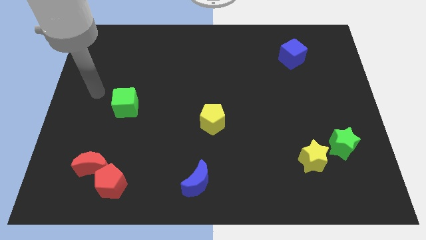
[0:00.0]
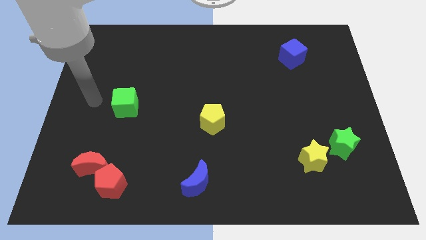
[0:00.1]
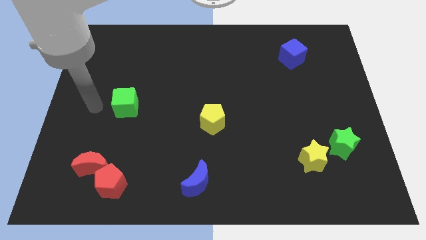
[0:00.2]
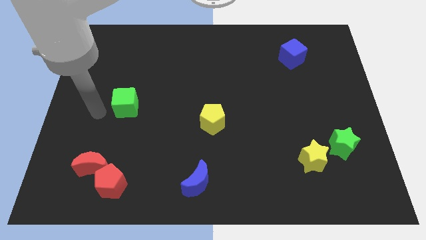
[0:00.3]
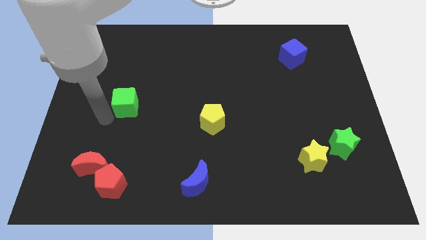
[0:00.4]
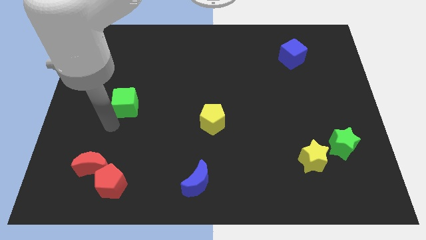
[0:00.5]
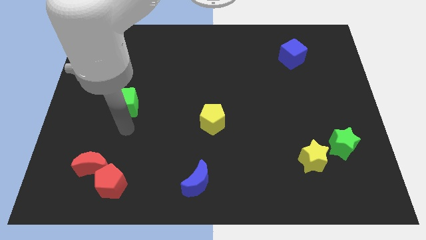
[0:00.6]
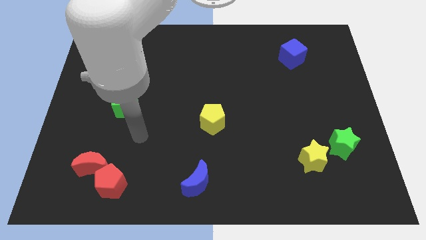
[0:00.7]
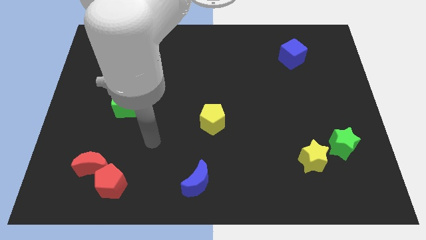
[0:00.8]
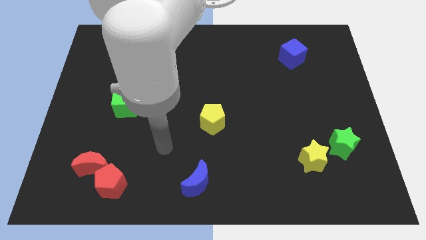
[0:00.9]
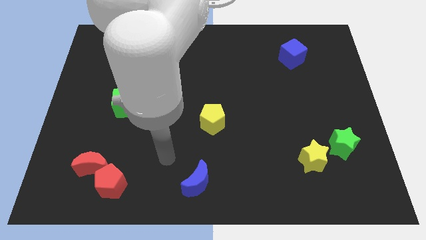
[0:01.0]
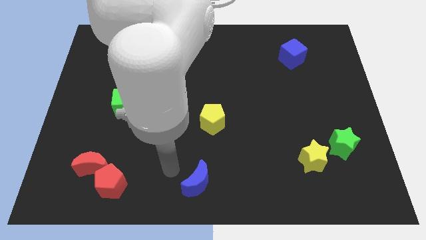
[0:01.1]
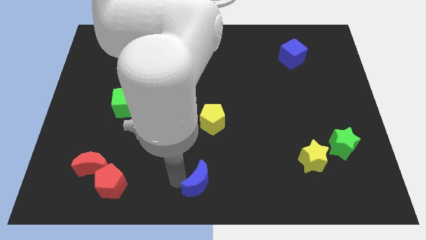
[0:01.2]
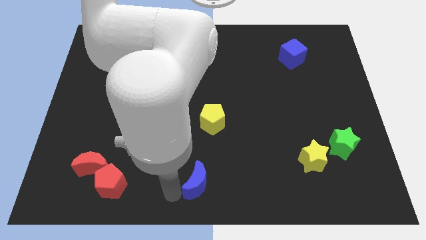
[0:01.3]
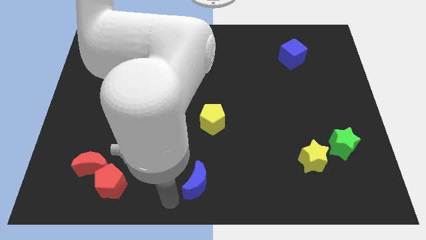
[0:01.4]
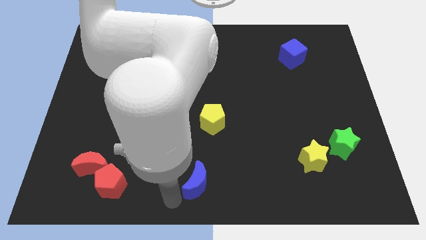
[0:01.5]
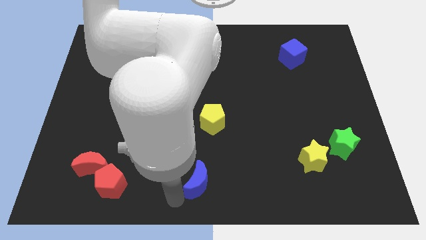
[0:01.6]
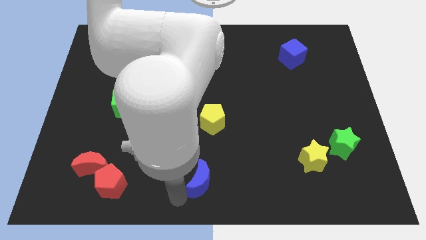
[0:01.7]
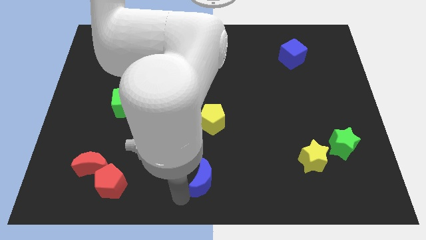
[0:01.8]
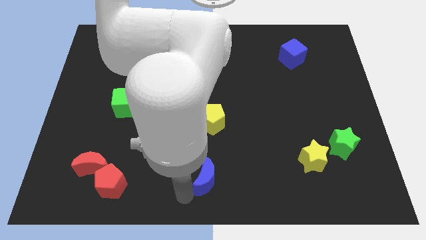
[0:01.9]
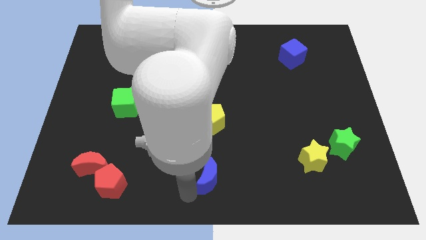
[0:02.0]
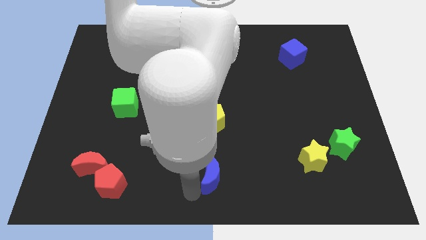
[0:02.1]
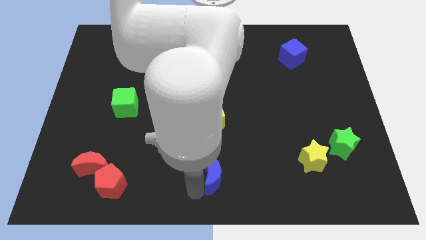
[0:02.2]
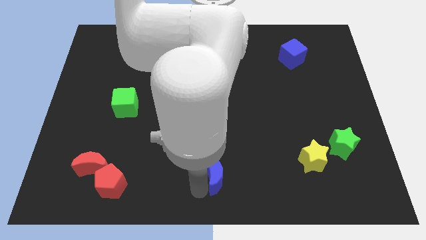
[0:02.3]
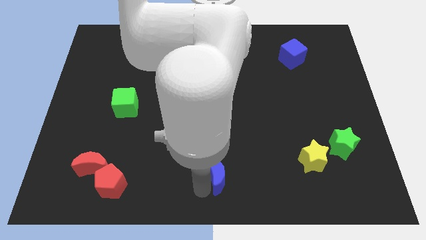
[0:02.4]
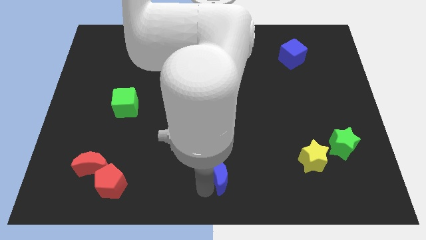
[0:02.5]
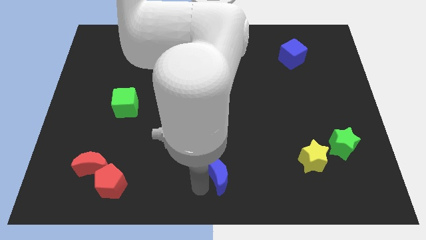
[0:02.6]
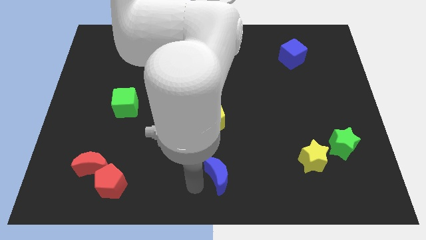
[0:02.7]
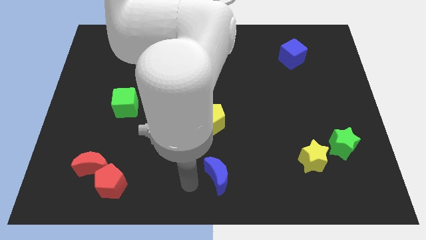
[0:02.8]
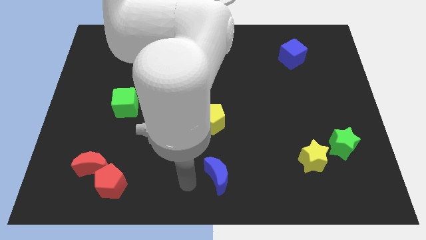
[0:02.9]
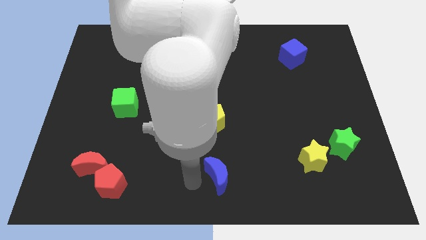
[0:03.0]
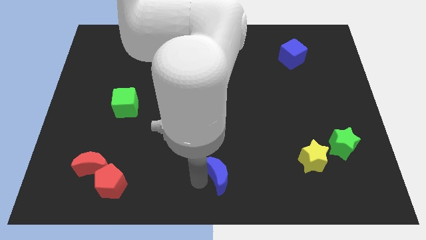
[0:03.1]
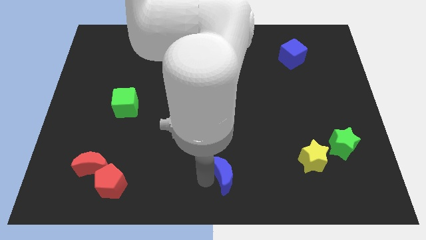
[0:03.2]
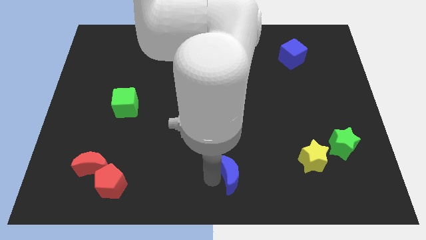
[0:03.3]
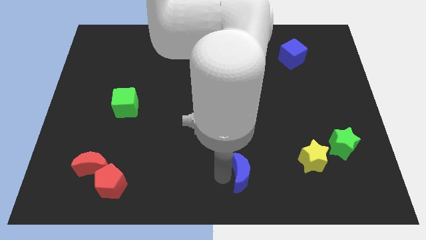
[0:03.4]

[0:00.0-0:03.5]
push the blue moon right a little bit

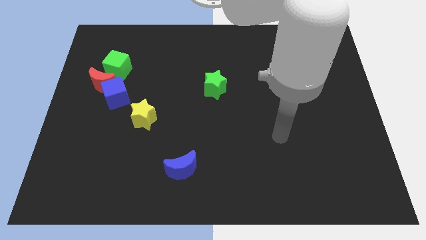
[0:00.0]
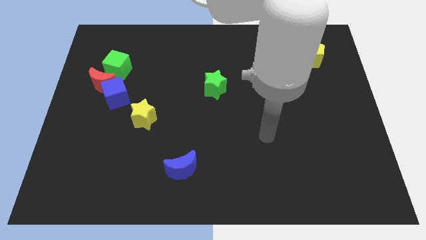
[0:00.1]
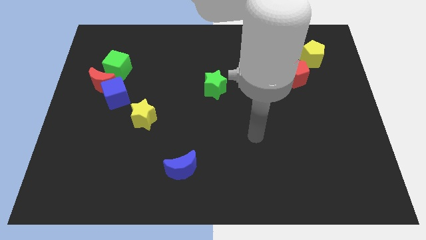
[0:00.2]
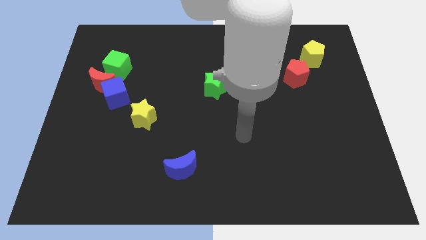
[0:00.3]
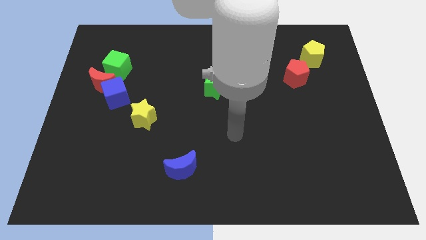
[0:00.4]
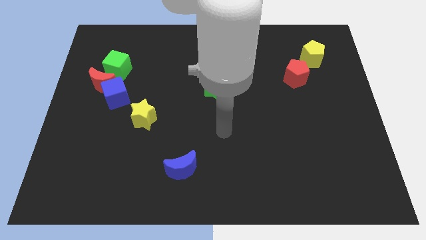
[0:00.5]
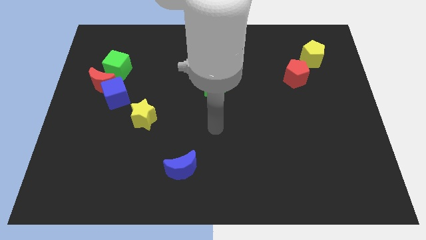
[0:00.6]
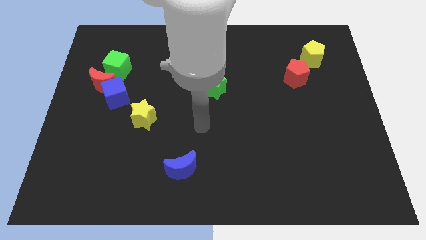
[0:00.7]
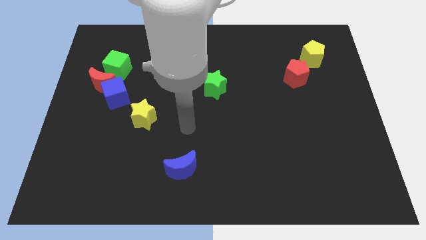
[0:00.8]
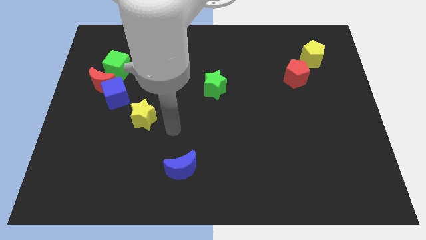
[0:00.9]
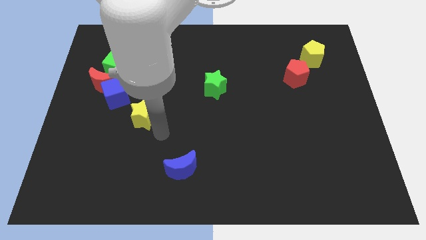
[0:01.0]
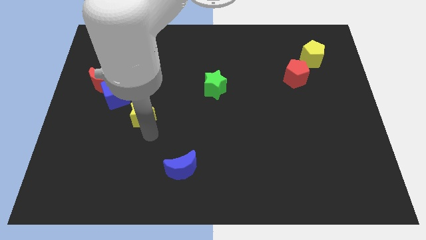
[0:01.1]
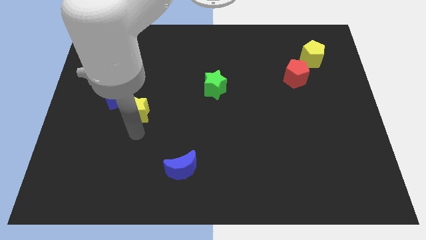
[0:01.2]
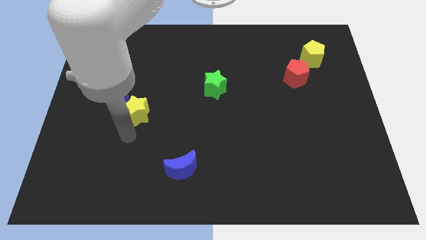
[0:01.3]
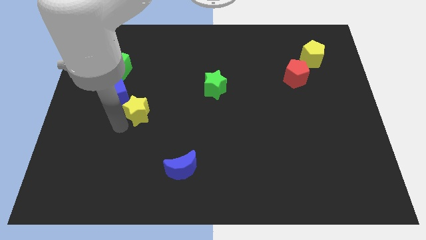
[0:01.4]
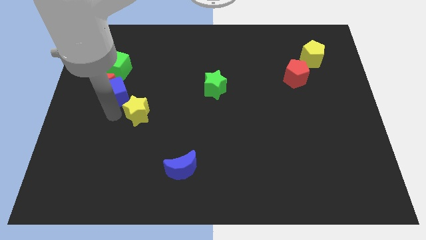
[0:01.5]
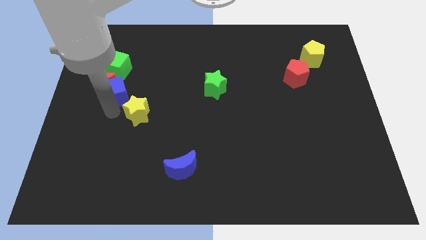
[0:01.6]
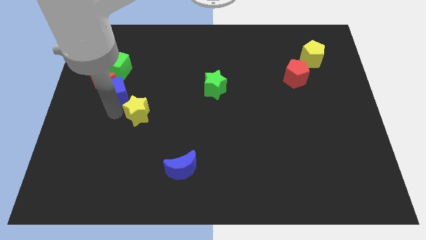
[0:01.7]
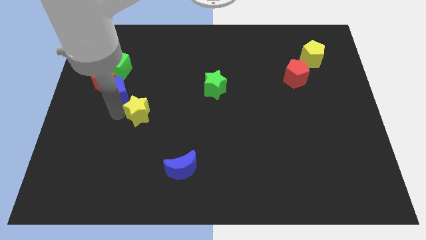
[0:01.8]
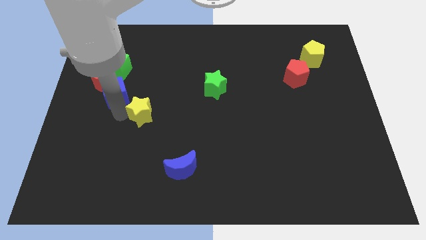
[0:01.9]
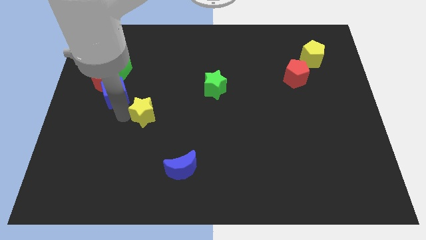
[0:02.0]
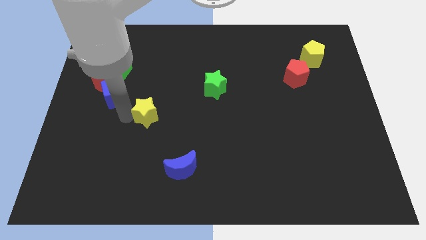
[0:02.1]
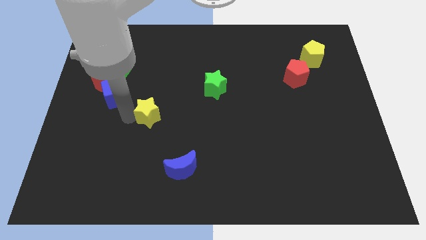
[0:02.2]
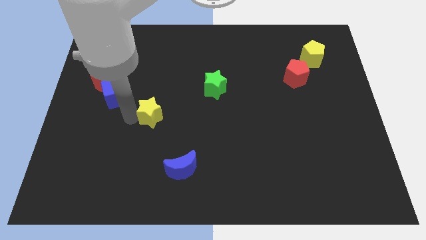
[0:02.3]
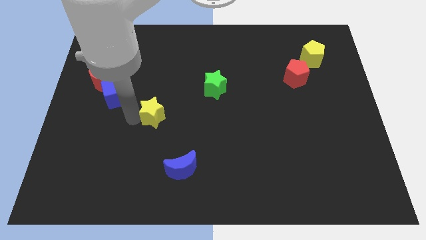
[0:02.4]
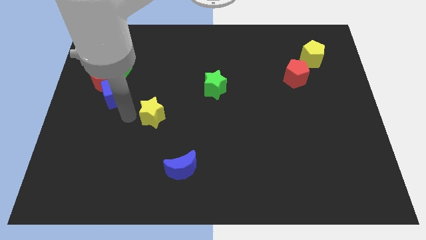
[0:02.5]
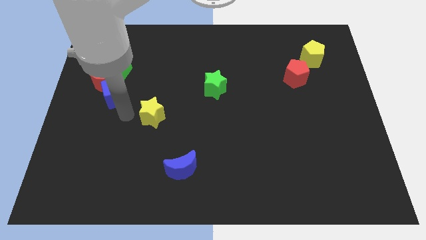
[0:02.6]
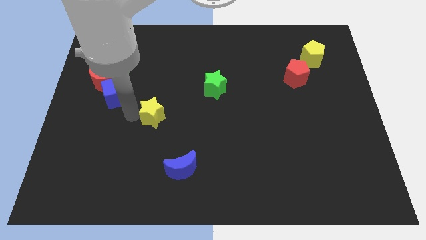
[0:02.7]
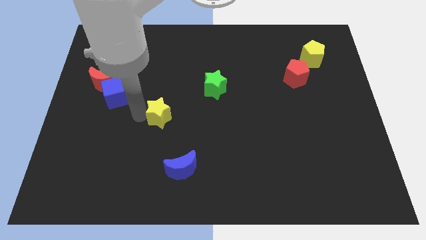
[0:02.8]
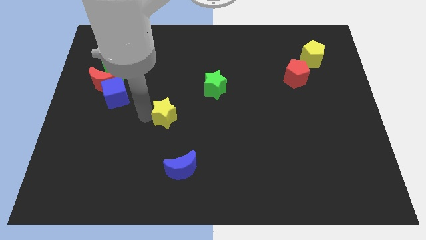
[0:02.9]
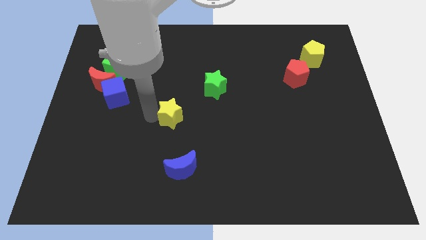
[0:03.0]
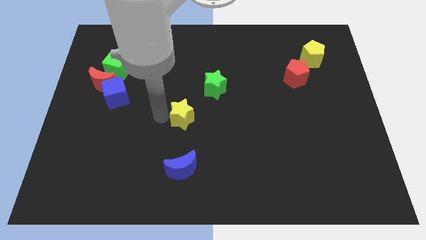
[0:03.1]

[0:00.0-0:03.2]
slide the yellow star somewhat to the right

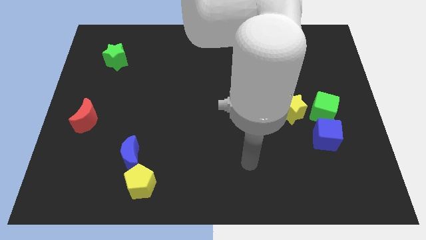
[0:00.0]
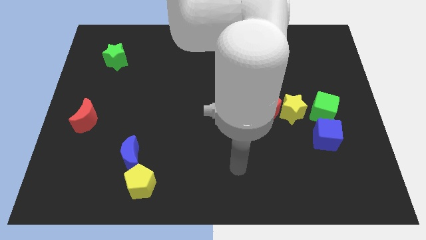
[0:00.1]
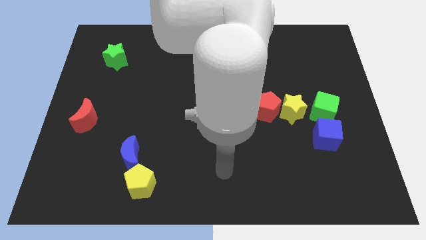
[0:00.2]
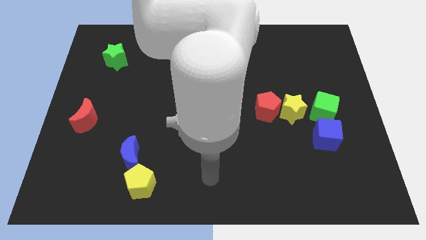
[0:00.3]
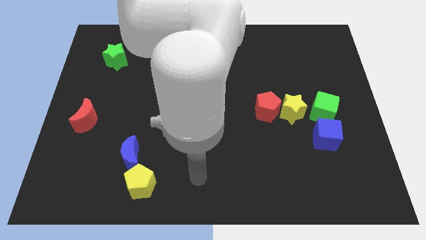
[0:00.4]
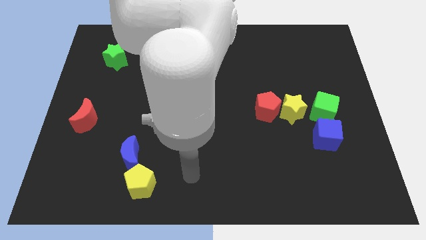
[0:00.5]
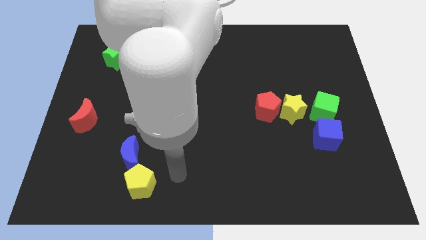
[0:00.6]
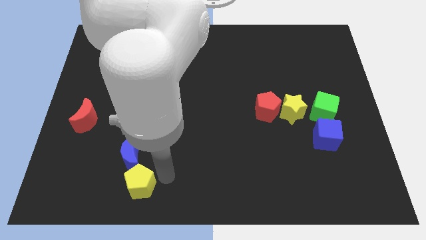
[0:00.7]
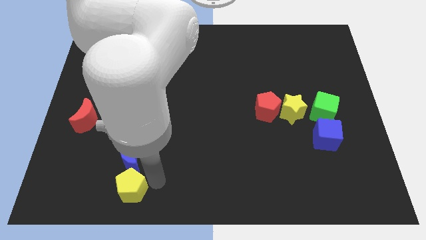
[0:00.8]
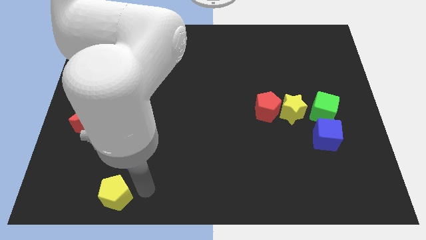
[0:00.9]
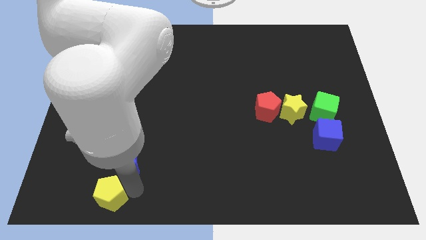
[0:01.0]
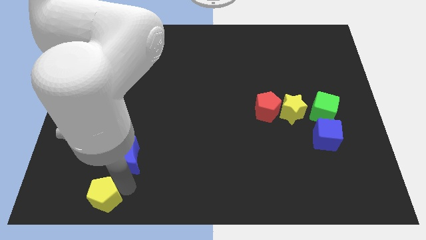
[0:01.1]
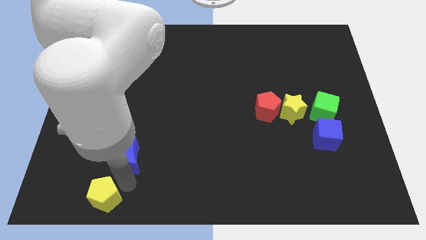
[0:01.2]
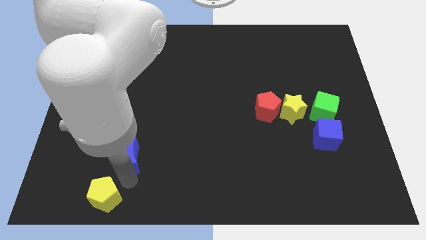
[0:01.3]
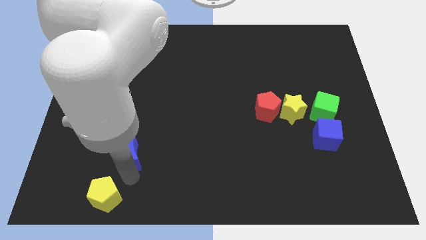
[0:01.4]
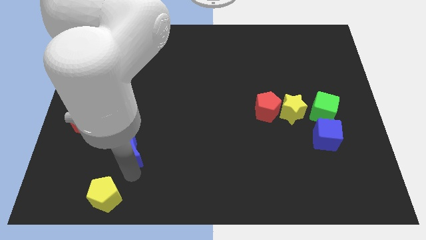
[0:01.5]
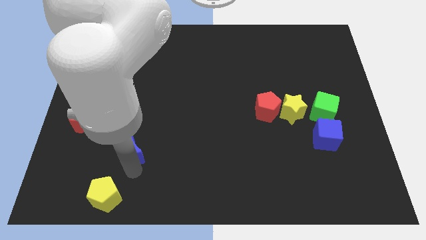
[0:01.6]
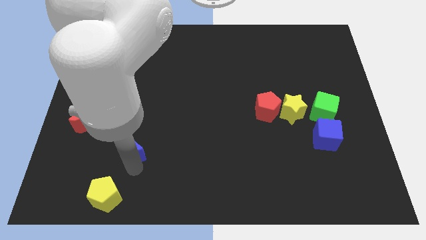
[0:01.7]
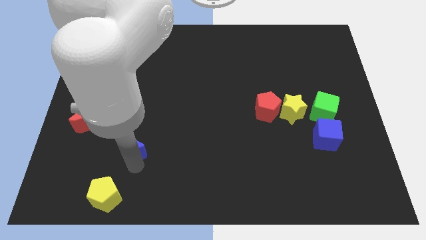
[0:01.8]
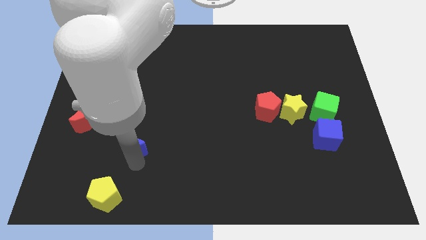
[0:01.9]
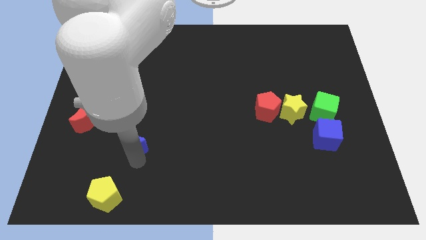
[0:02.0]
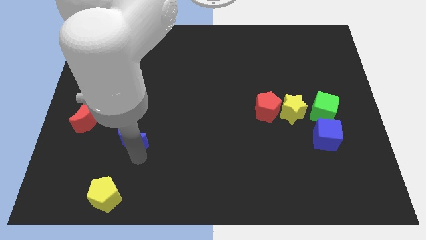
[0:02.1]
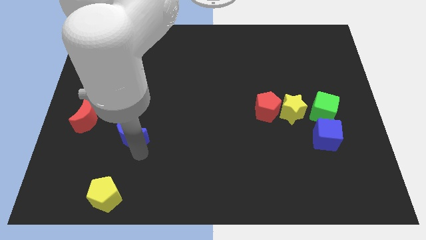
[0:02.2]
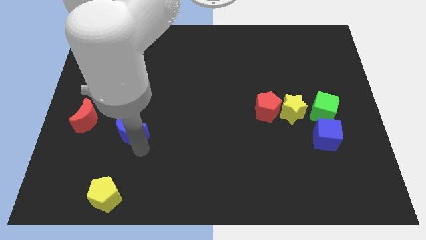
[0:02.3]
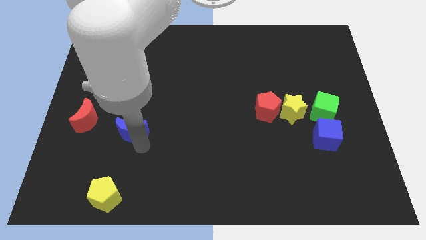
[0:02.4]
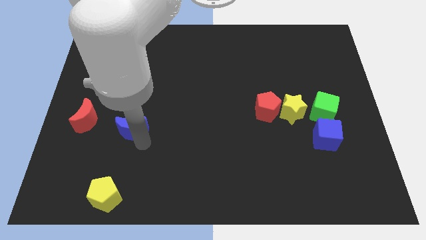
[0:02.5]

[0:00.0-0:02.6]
slightly move the blue moon upwards
